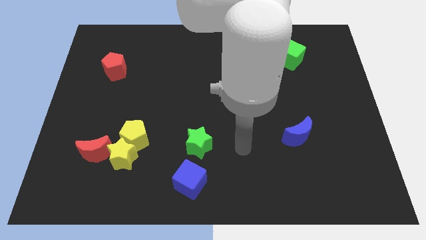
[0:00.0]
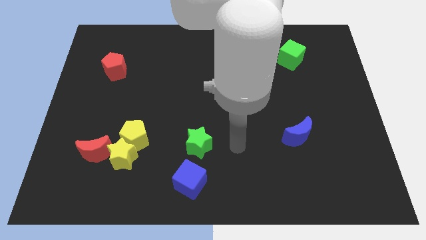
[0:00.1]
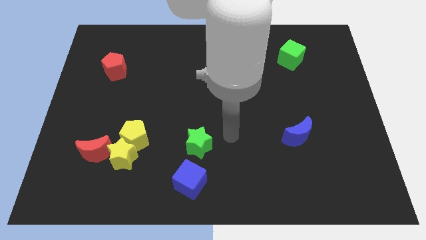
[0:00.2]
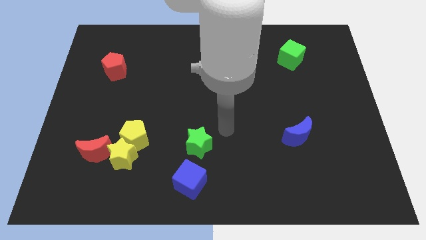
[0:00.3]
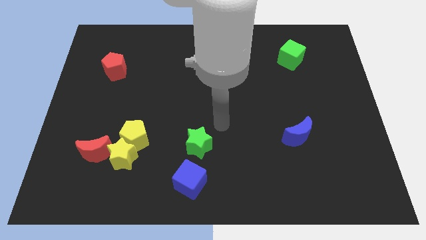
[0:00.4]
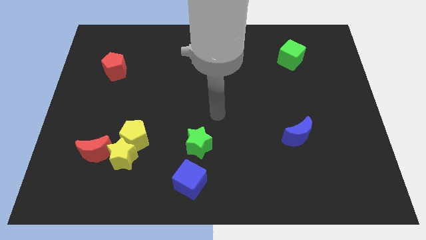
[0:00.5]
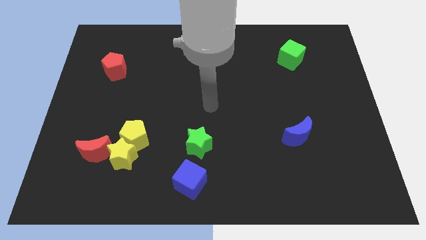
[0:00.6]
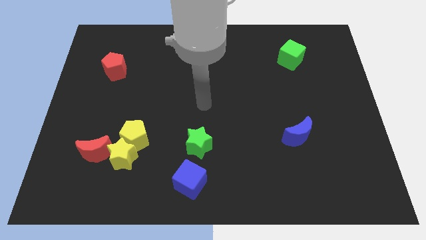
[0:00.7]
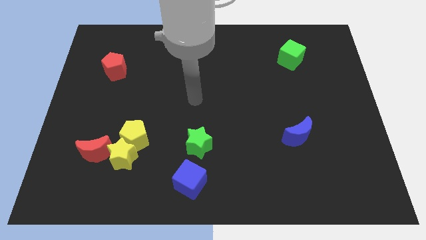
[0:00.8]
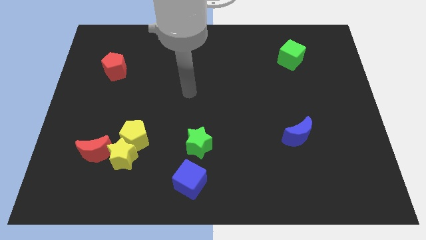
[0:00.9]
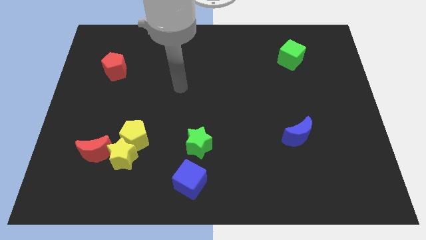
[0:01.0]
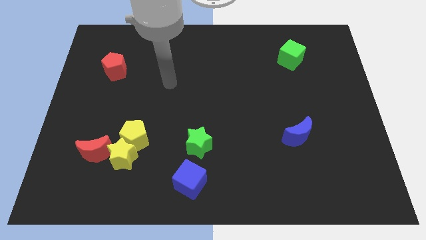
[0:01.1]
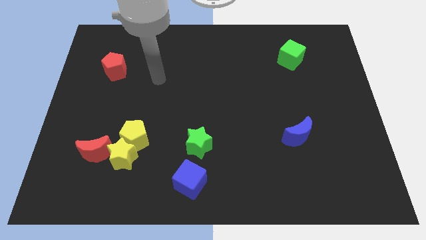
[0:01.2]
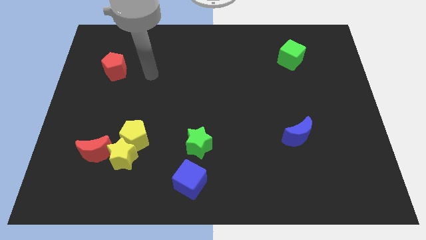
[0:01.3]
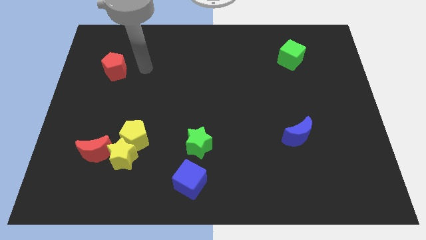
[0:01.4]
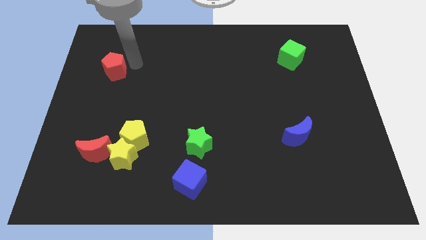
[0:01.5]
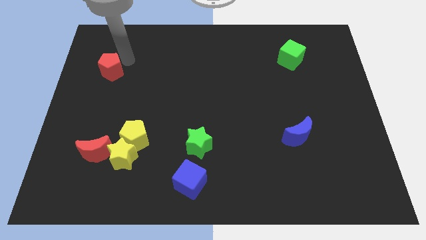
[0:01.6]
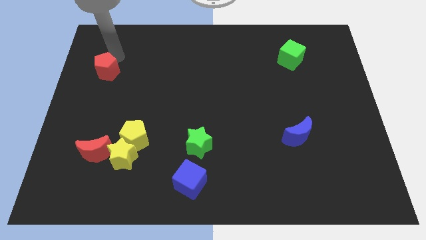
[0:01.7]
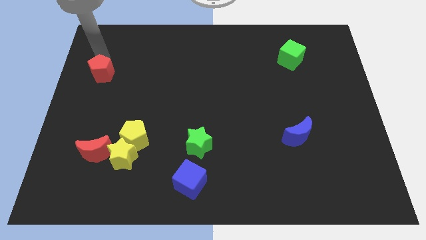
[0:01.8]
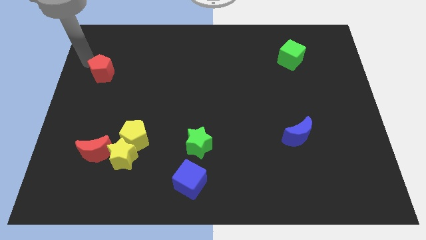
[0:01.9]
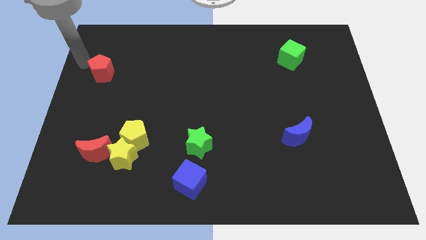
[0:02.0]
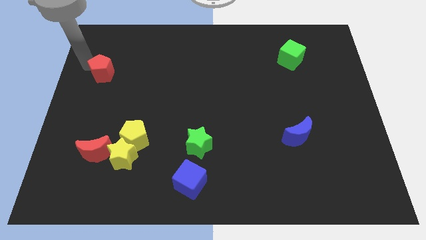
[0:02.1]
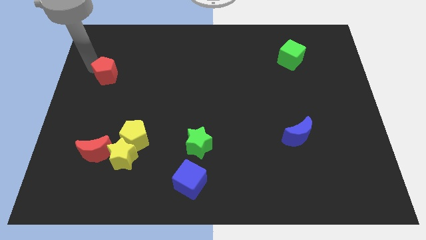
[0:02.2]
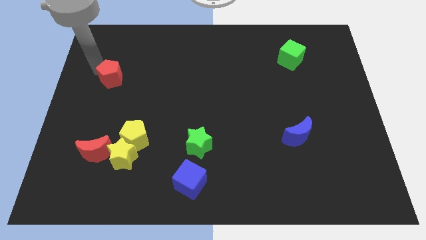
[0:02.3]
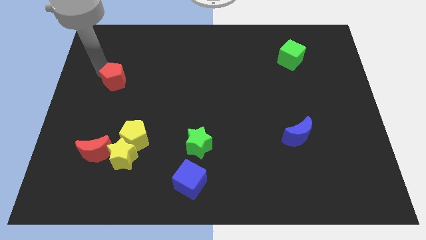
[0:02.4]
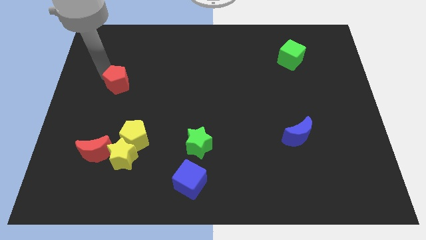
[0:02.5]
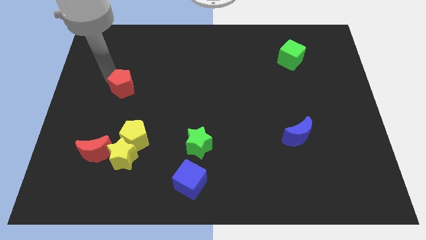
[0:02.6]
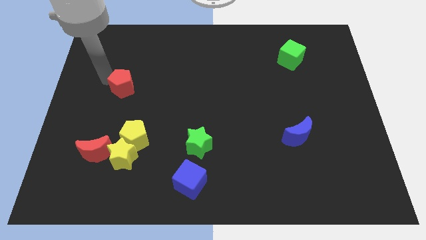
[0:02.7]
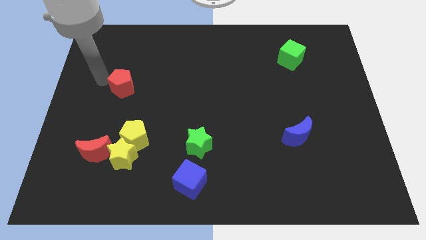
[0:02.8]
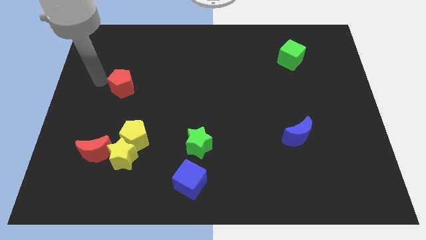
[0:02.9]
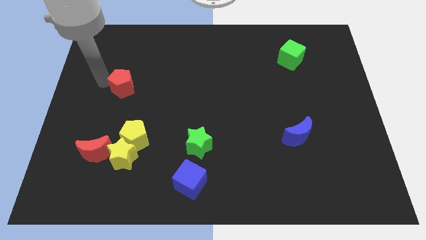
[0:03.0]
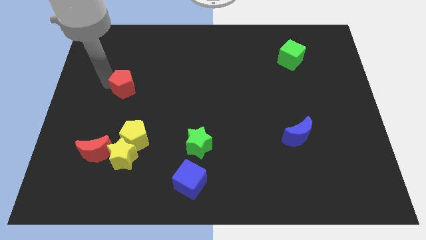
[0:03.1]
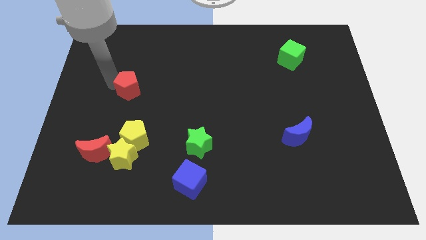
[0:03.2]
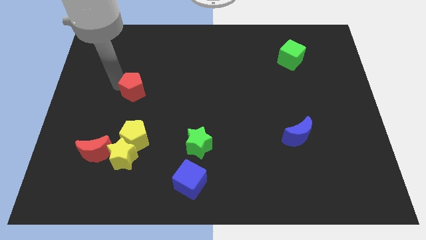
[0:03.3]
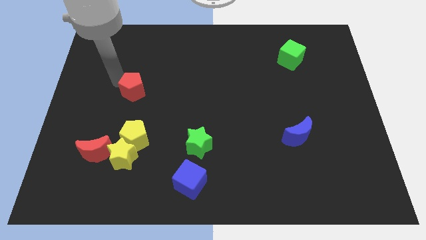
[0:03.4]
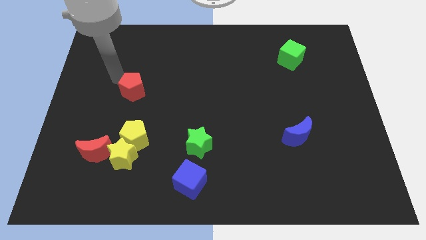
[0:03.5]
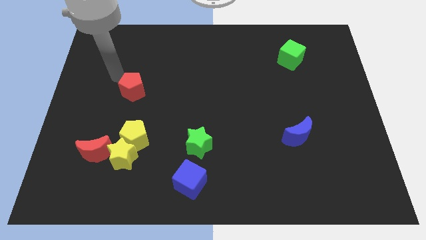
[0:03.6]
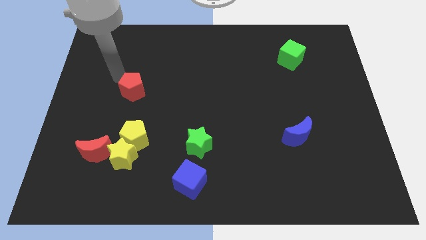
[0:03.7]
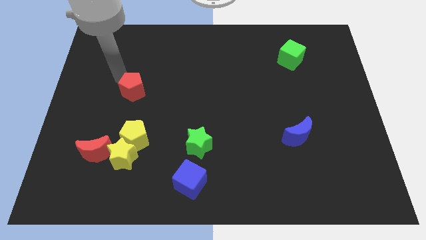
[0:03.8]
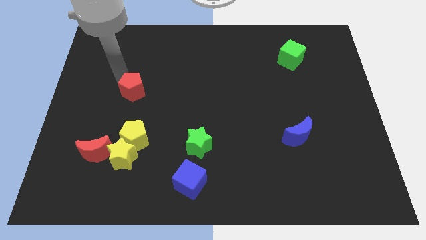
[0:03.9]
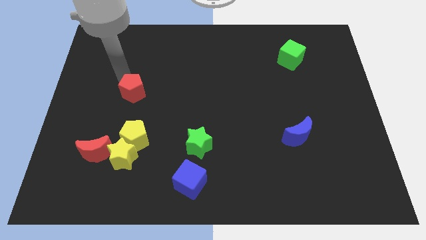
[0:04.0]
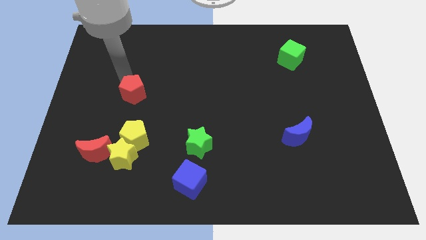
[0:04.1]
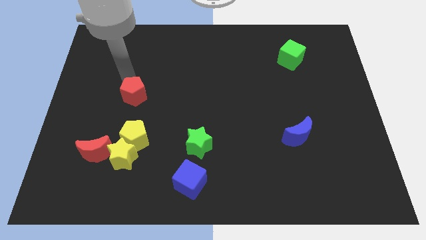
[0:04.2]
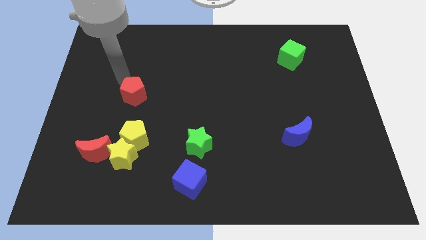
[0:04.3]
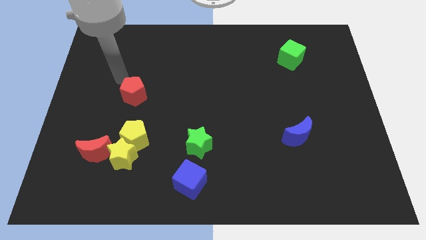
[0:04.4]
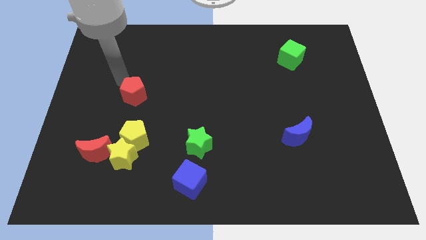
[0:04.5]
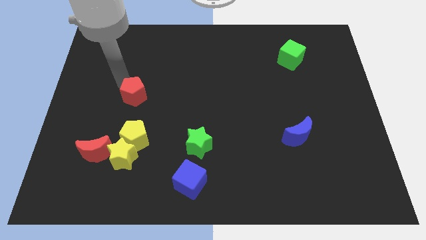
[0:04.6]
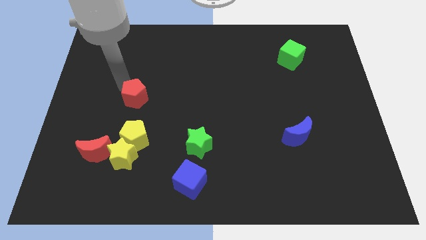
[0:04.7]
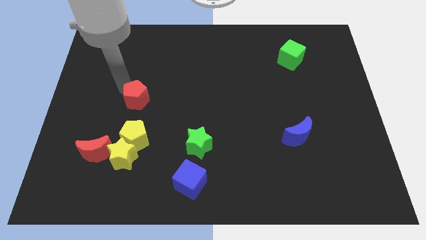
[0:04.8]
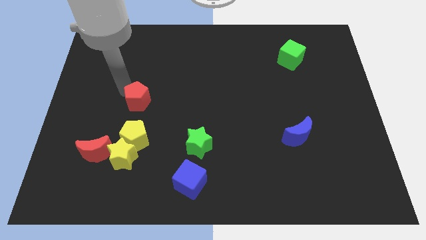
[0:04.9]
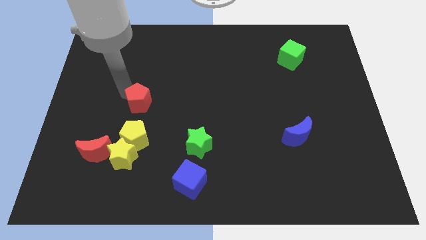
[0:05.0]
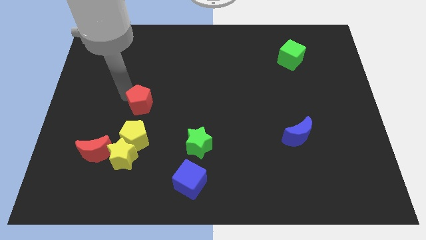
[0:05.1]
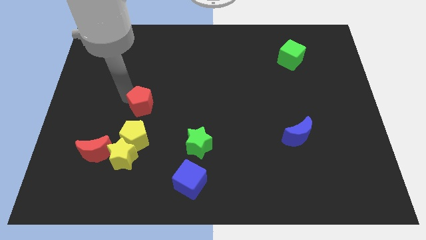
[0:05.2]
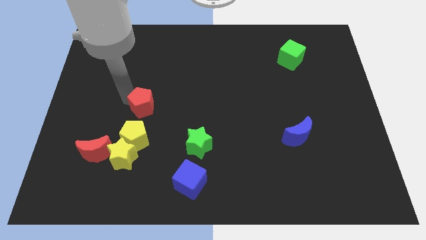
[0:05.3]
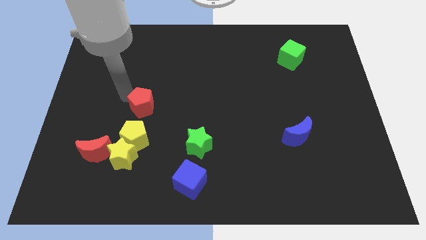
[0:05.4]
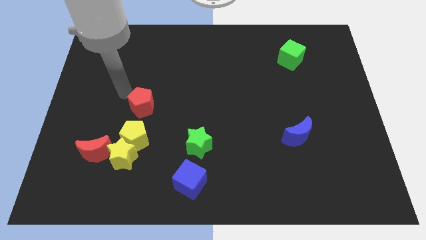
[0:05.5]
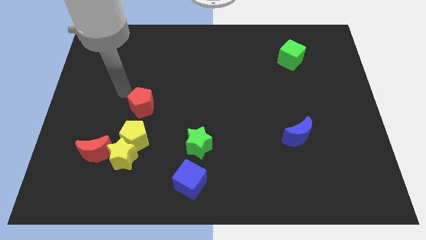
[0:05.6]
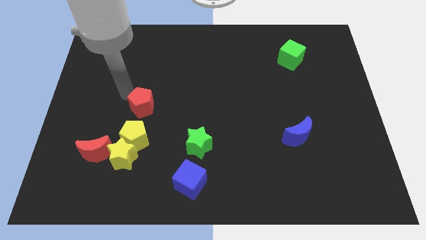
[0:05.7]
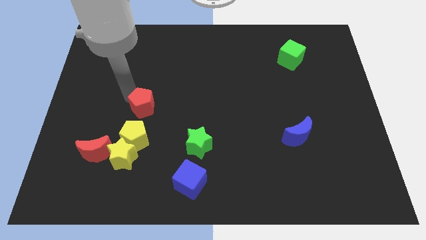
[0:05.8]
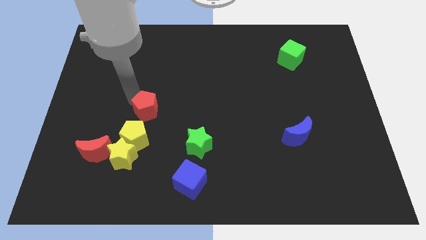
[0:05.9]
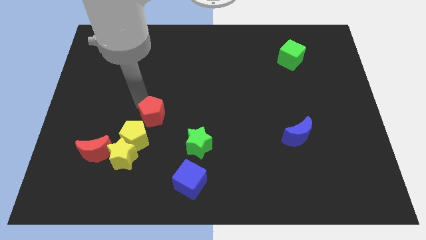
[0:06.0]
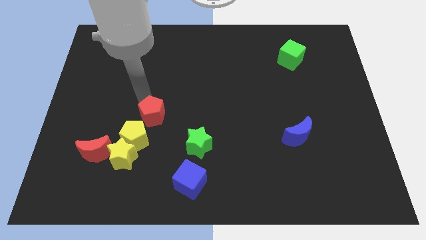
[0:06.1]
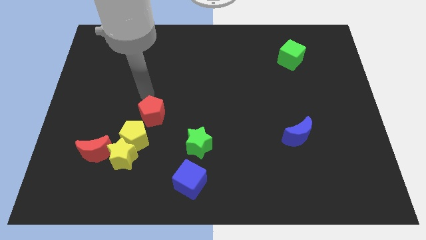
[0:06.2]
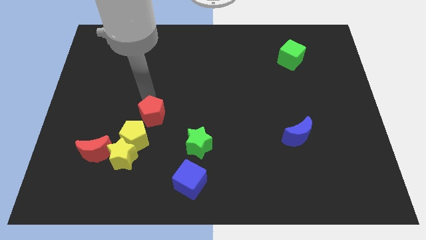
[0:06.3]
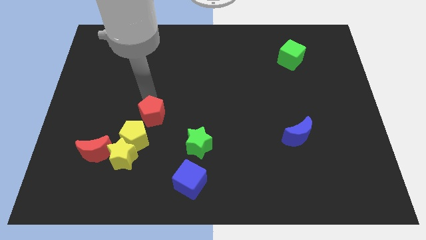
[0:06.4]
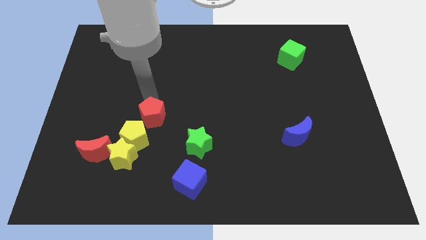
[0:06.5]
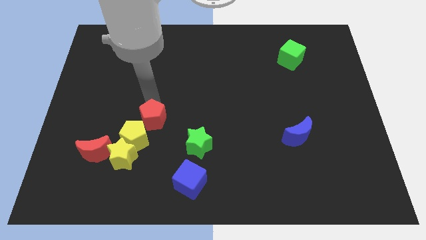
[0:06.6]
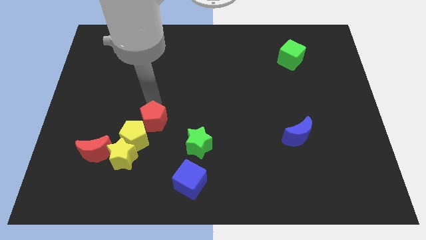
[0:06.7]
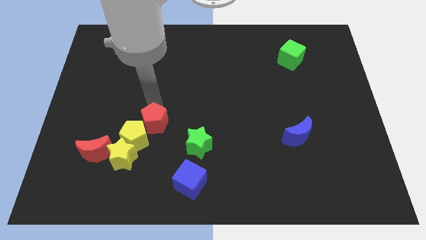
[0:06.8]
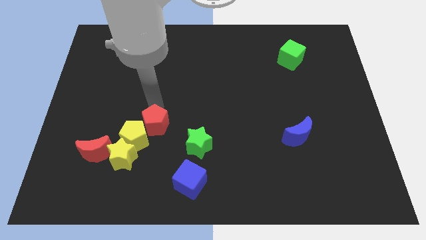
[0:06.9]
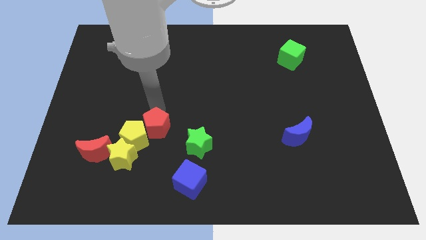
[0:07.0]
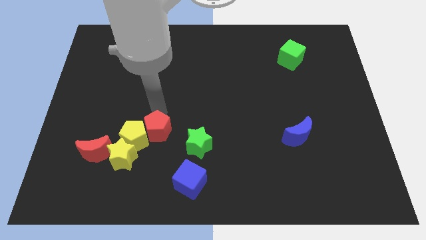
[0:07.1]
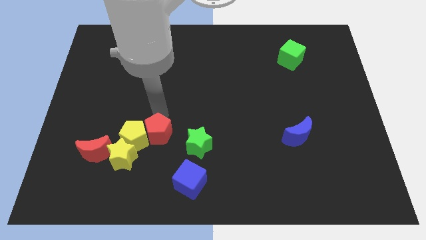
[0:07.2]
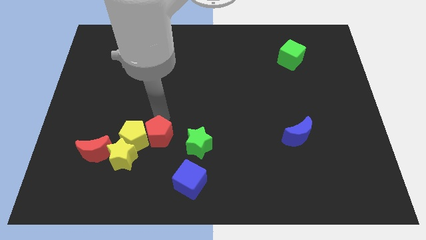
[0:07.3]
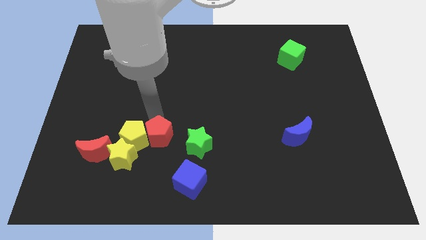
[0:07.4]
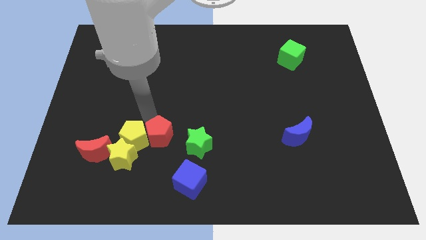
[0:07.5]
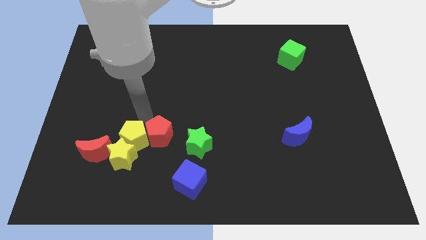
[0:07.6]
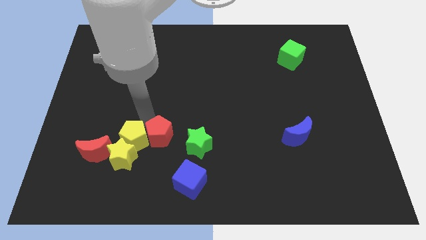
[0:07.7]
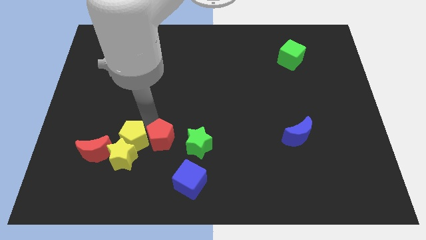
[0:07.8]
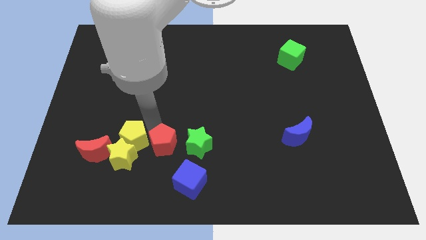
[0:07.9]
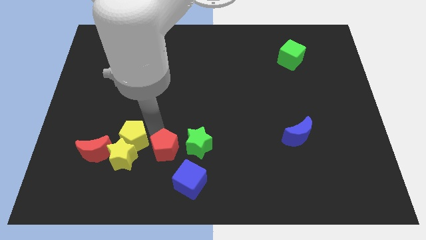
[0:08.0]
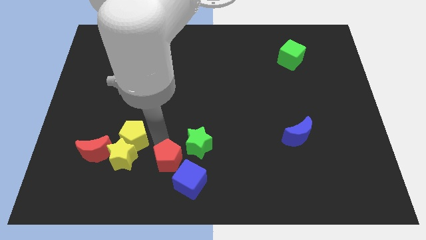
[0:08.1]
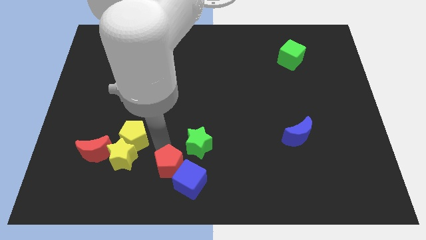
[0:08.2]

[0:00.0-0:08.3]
push the red pentagon next to the blue cube
